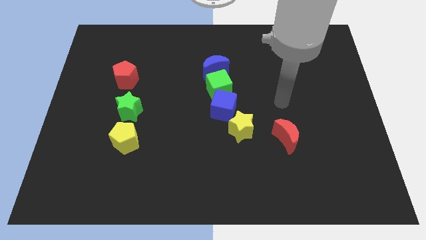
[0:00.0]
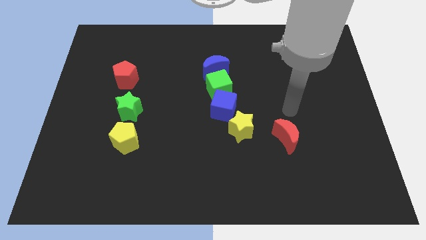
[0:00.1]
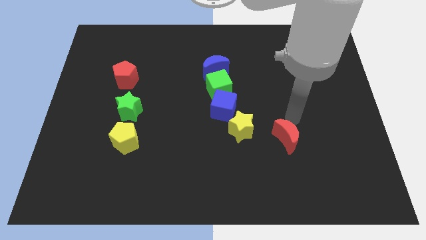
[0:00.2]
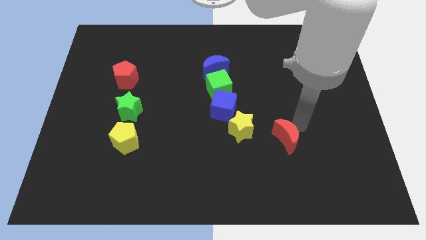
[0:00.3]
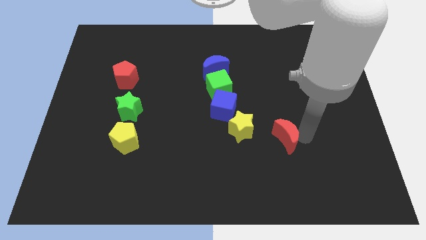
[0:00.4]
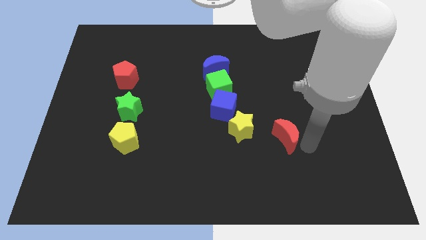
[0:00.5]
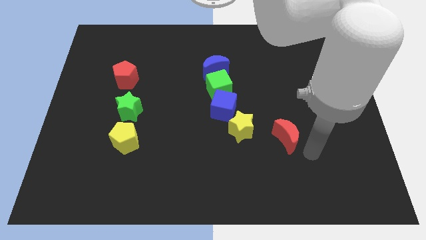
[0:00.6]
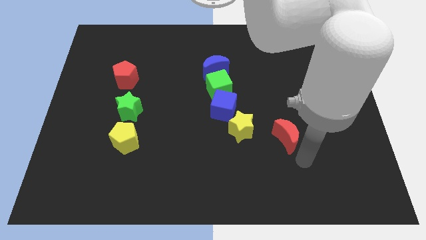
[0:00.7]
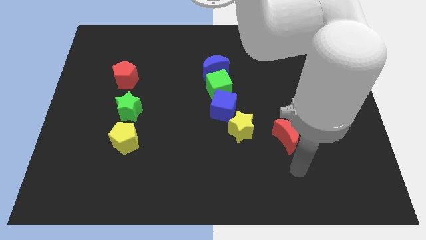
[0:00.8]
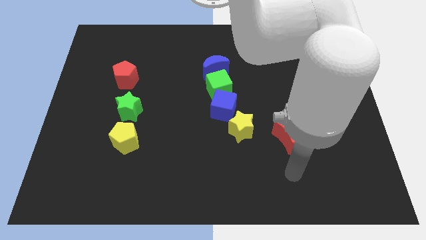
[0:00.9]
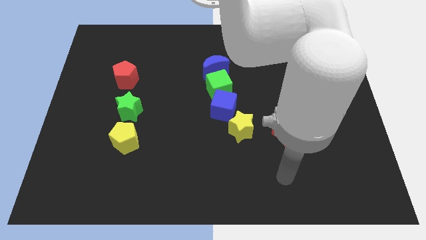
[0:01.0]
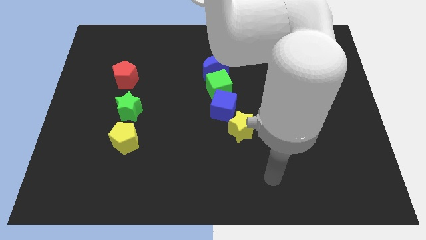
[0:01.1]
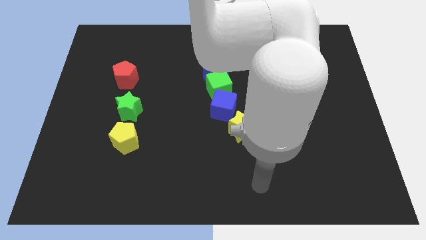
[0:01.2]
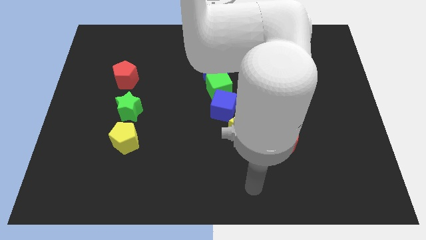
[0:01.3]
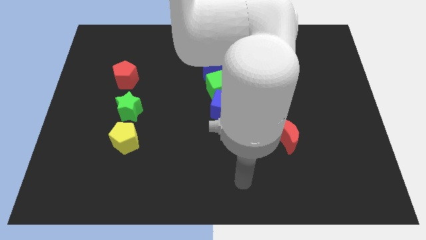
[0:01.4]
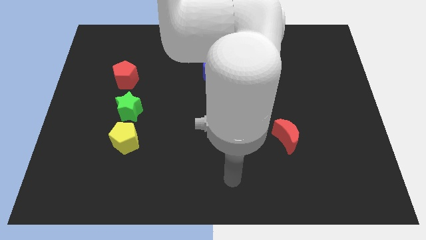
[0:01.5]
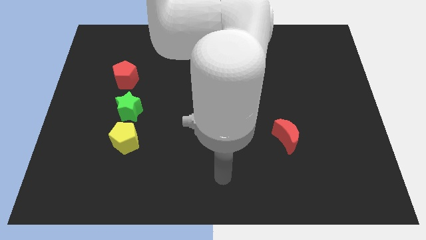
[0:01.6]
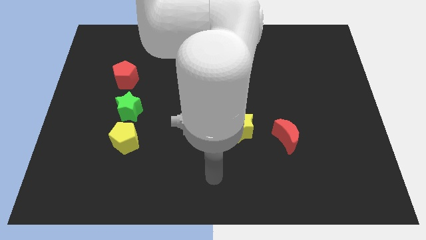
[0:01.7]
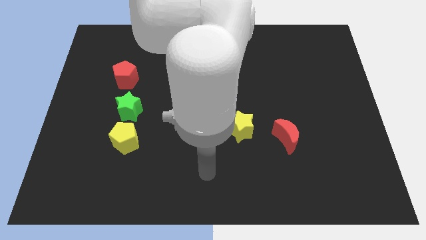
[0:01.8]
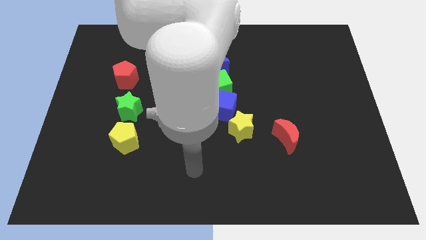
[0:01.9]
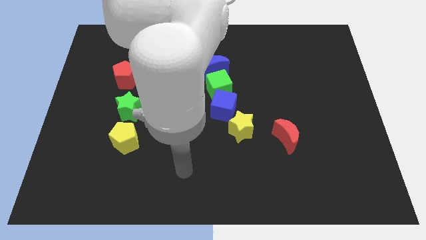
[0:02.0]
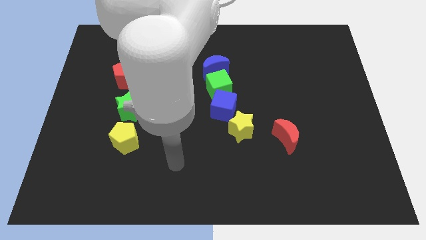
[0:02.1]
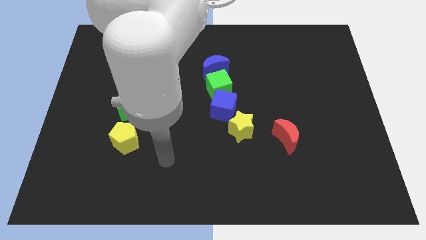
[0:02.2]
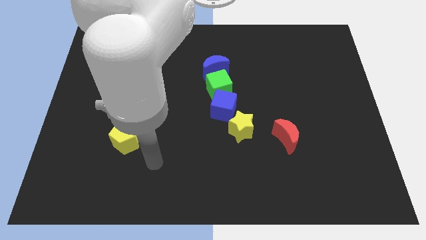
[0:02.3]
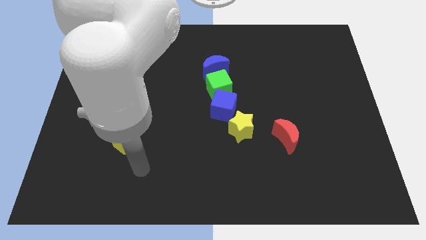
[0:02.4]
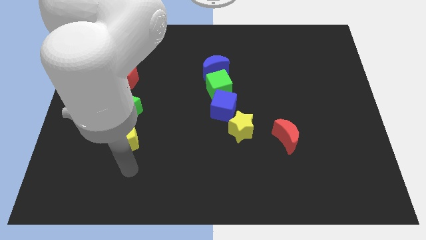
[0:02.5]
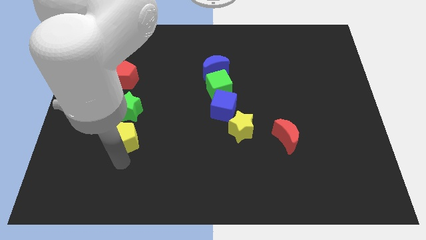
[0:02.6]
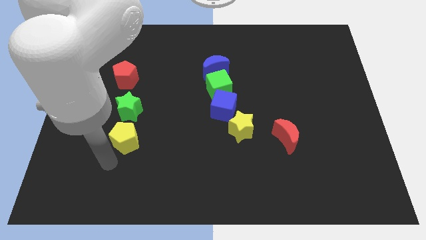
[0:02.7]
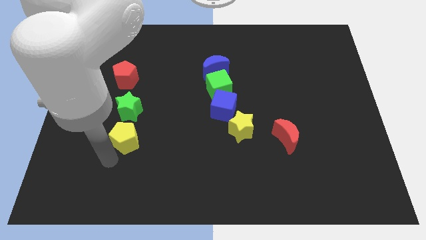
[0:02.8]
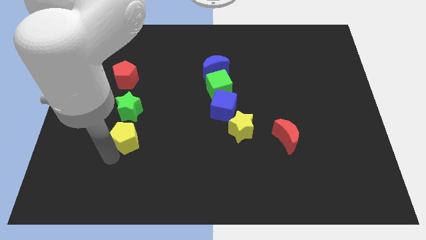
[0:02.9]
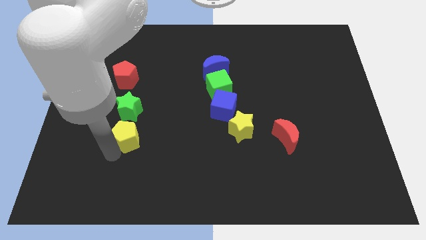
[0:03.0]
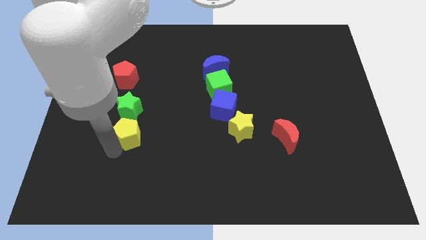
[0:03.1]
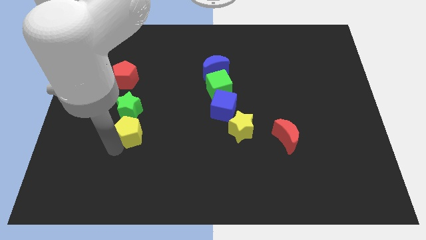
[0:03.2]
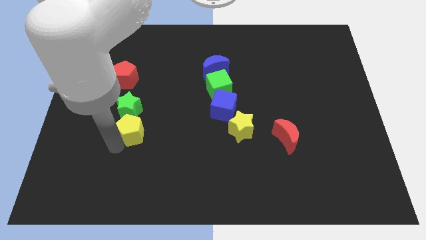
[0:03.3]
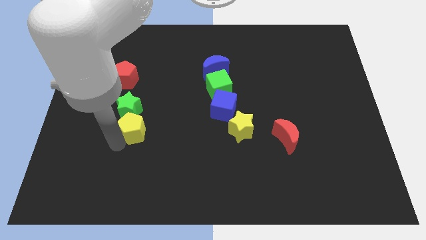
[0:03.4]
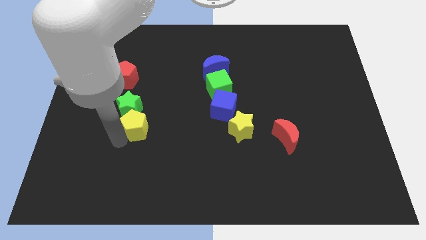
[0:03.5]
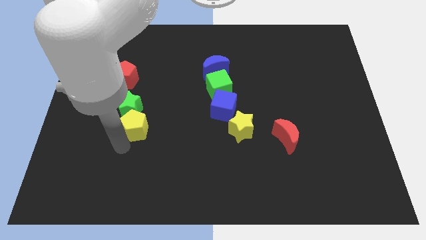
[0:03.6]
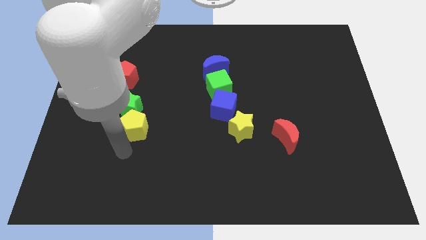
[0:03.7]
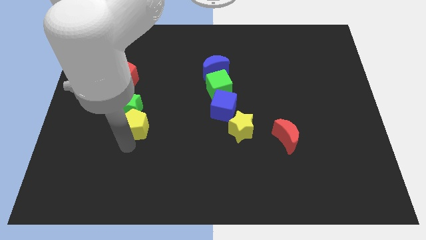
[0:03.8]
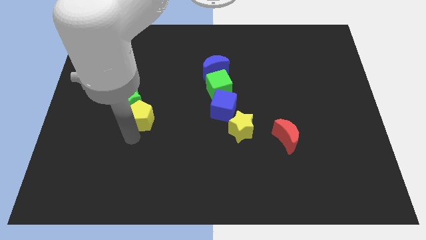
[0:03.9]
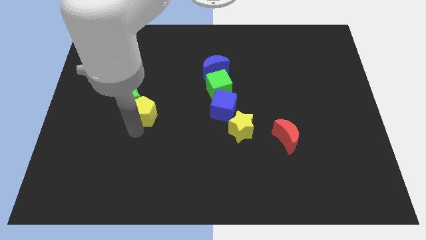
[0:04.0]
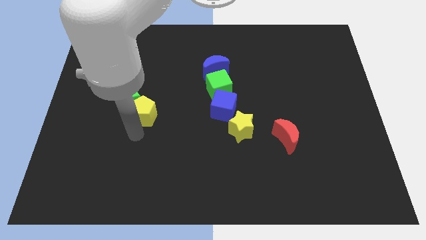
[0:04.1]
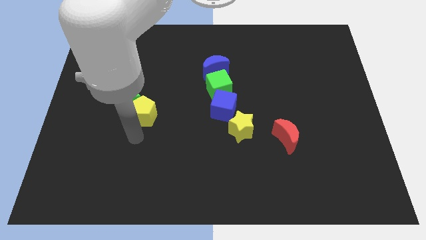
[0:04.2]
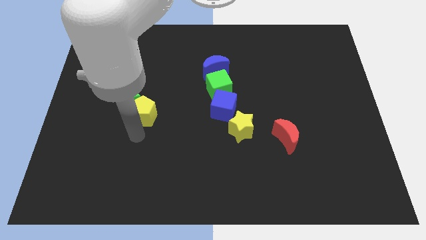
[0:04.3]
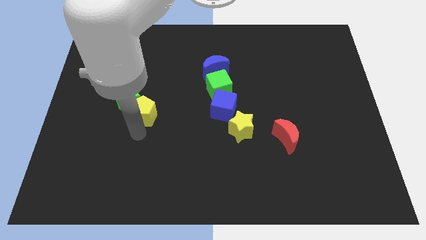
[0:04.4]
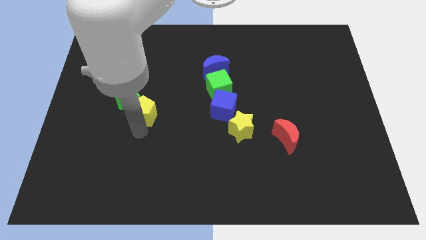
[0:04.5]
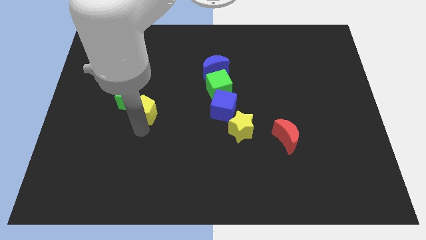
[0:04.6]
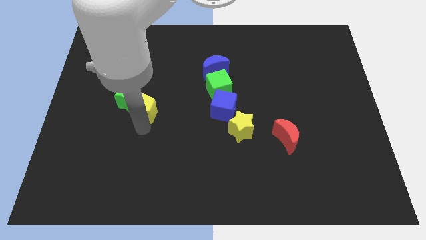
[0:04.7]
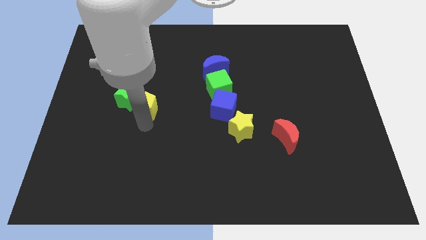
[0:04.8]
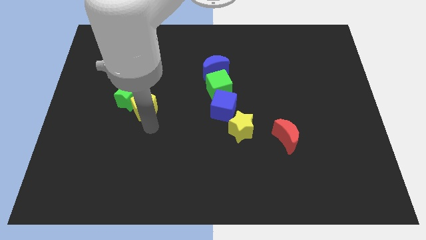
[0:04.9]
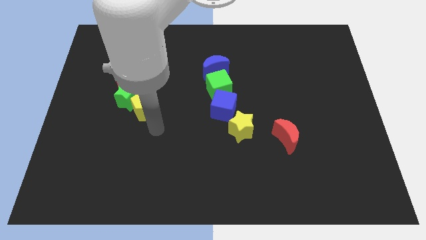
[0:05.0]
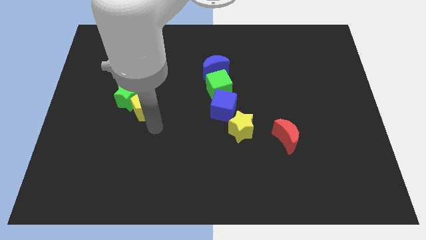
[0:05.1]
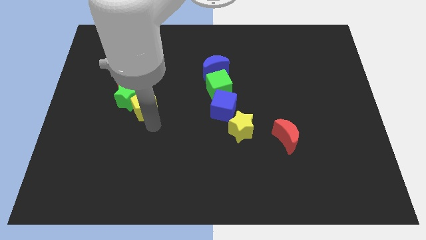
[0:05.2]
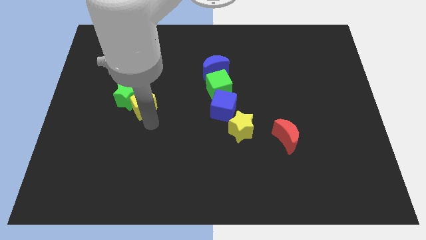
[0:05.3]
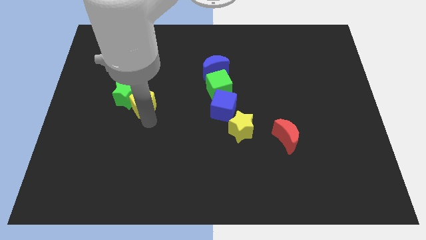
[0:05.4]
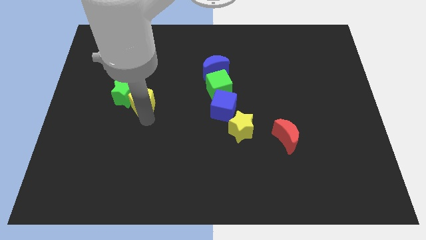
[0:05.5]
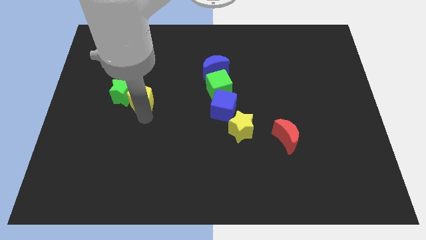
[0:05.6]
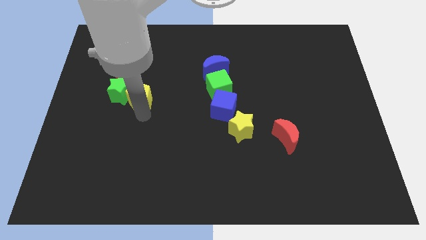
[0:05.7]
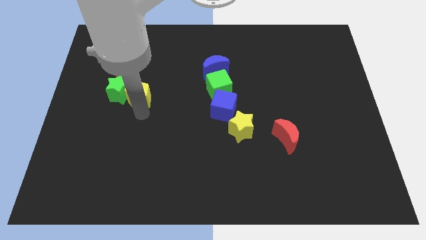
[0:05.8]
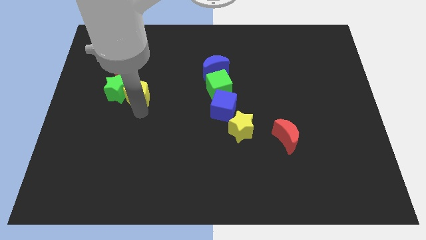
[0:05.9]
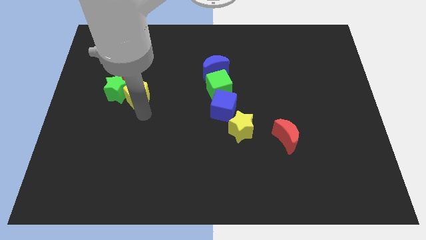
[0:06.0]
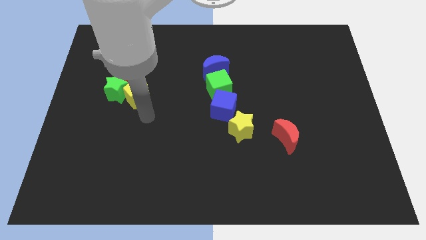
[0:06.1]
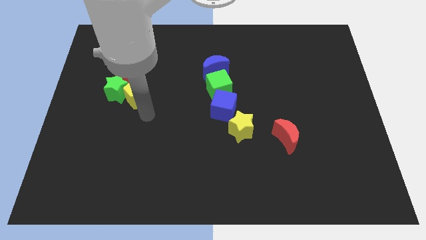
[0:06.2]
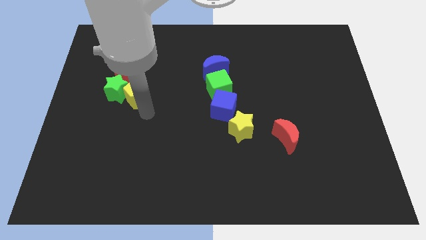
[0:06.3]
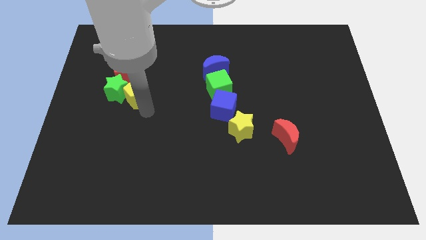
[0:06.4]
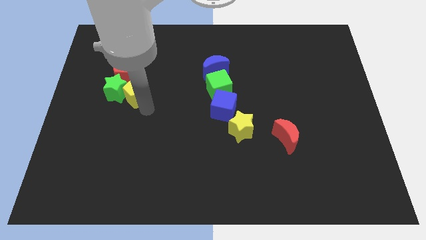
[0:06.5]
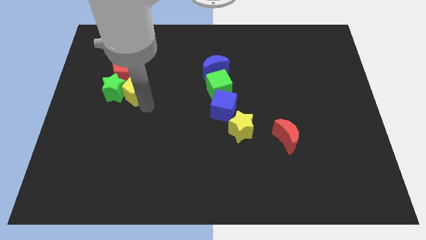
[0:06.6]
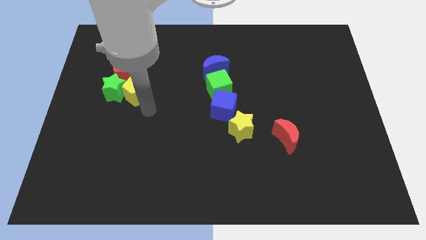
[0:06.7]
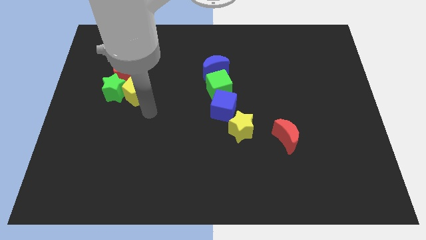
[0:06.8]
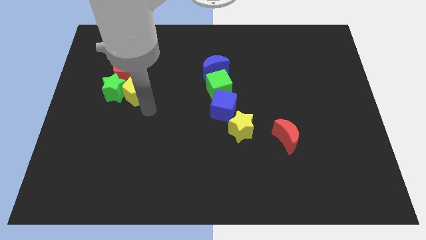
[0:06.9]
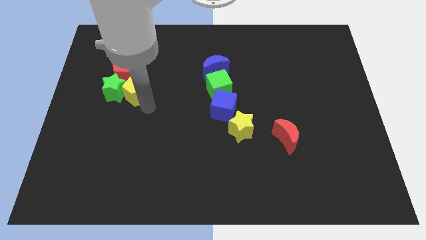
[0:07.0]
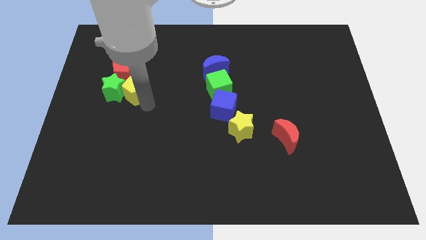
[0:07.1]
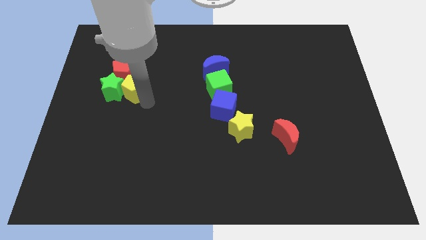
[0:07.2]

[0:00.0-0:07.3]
push the yellow pentagon close to the red pentagon

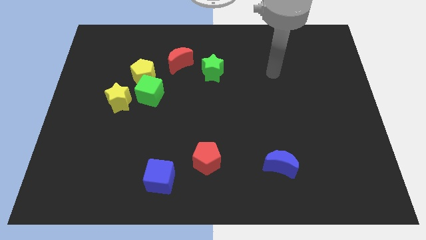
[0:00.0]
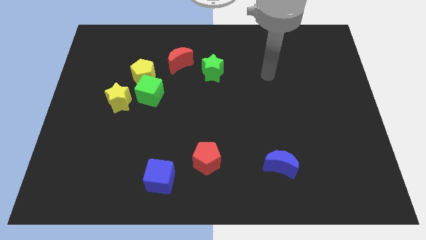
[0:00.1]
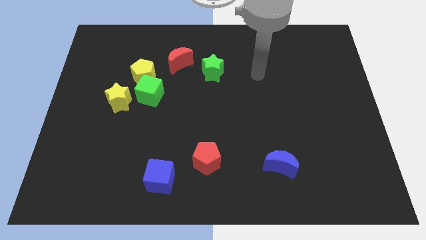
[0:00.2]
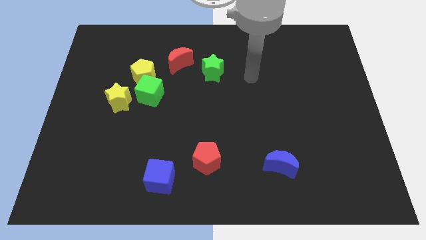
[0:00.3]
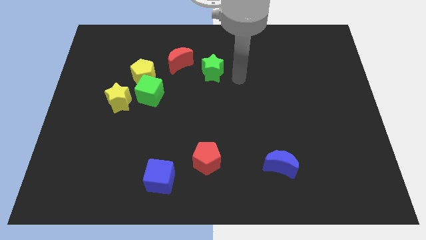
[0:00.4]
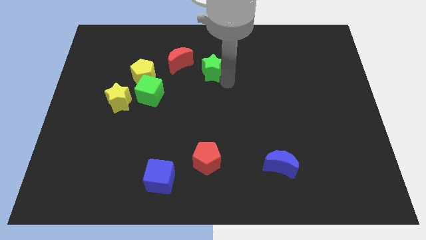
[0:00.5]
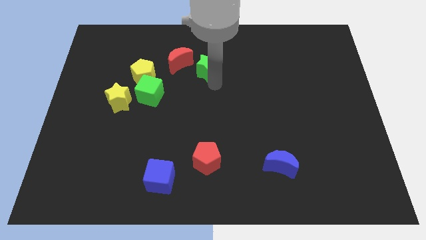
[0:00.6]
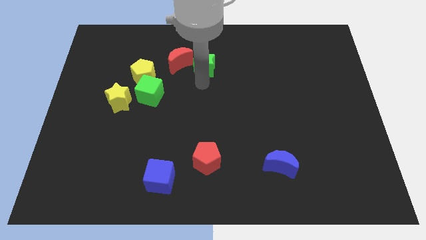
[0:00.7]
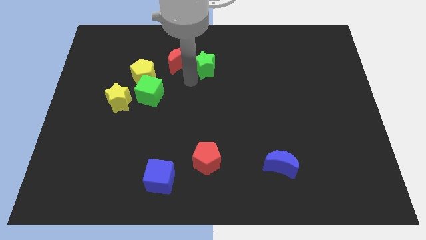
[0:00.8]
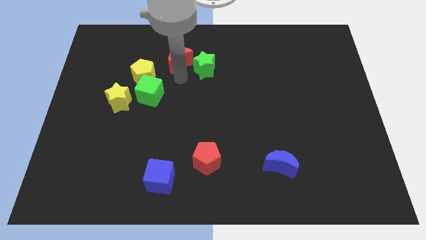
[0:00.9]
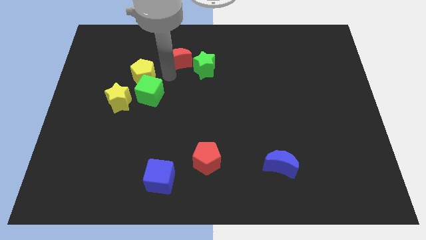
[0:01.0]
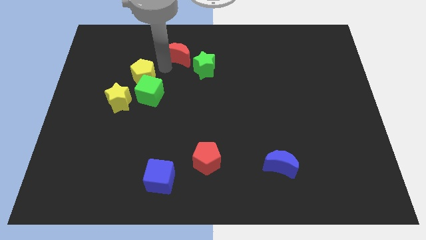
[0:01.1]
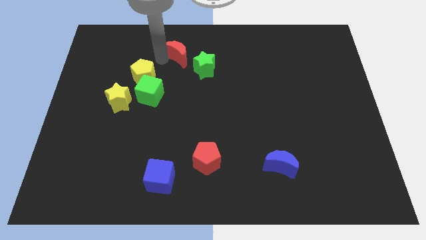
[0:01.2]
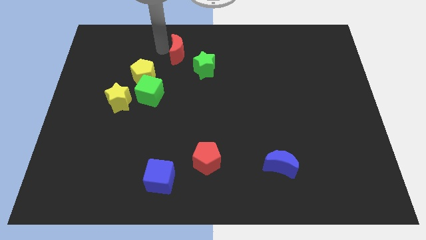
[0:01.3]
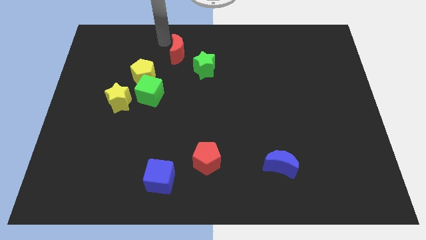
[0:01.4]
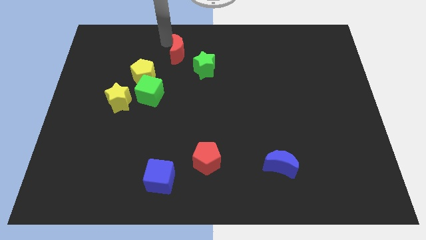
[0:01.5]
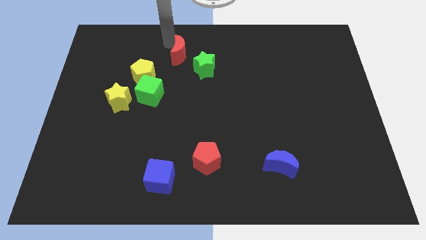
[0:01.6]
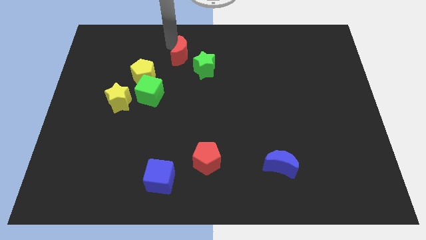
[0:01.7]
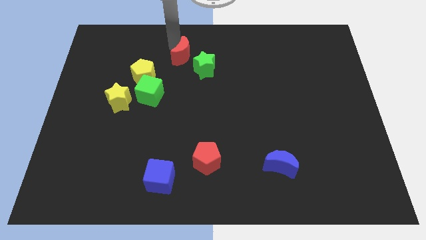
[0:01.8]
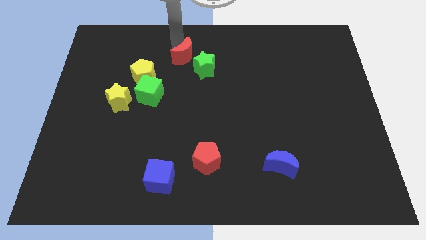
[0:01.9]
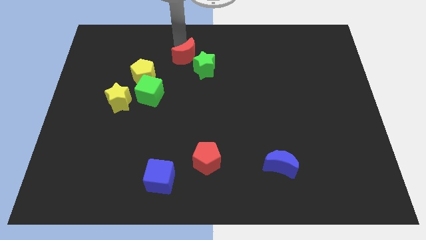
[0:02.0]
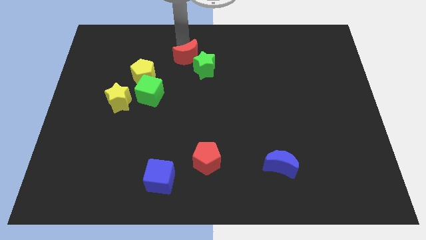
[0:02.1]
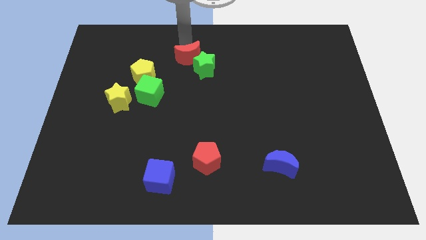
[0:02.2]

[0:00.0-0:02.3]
slide the red moon next to the green star
